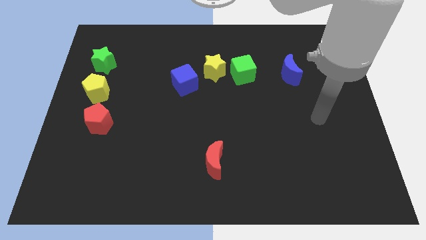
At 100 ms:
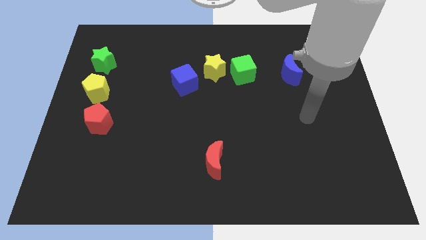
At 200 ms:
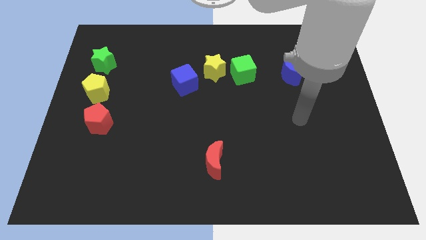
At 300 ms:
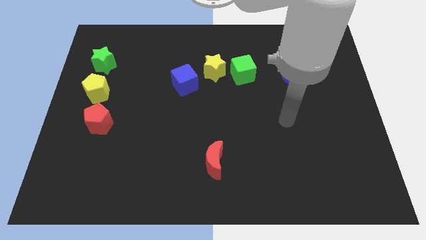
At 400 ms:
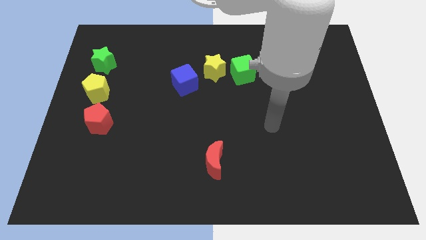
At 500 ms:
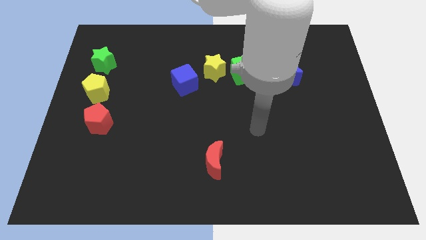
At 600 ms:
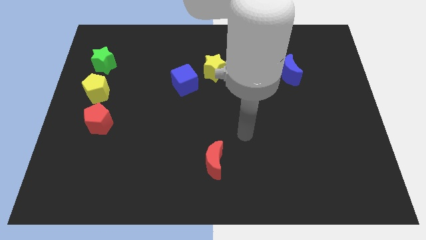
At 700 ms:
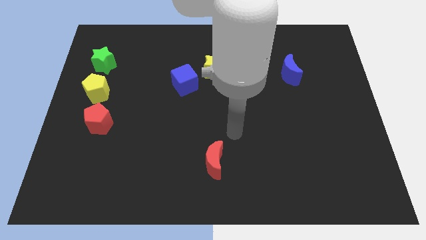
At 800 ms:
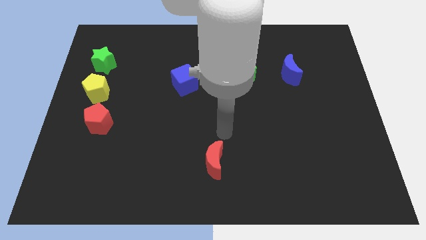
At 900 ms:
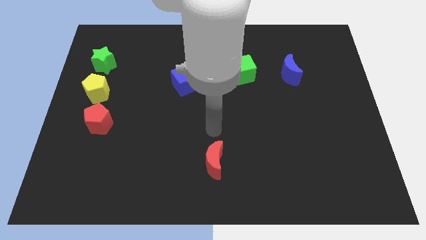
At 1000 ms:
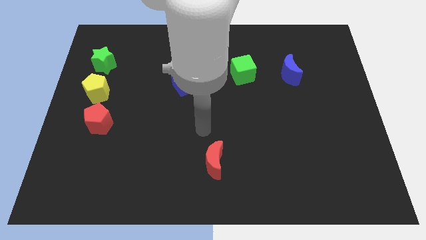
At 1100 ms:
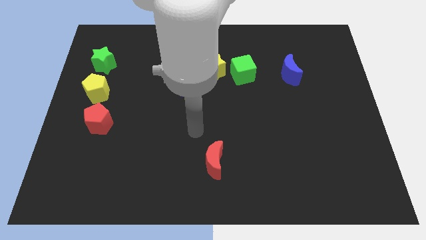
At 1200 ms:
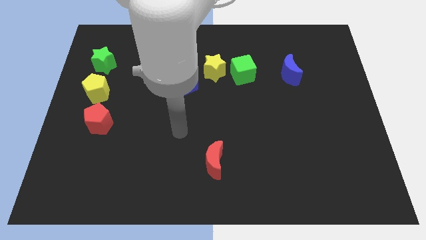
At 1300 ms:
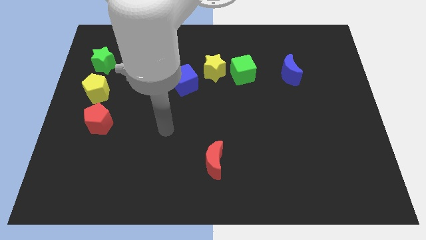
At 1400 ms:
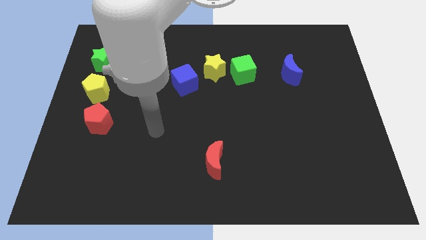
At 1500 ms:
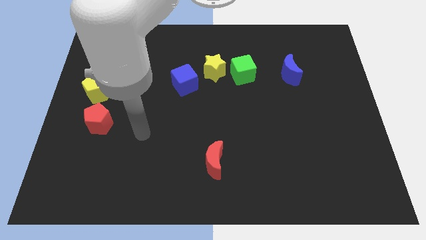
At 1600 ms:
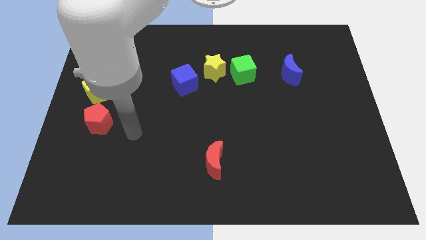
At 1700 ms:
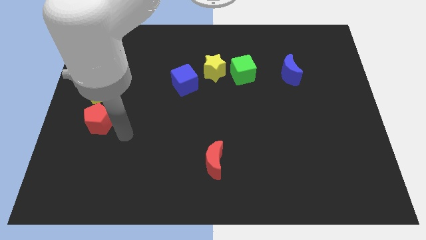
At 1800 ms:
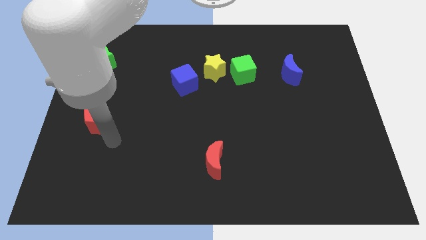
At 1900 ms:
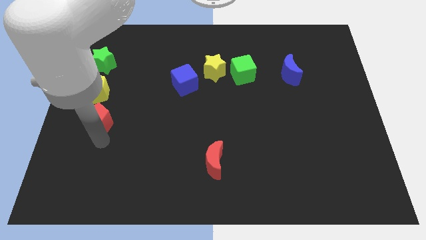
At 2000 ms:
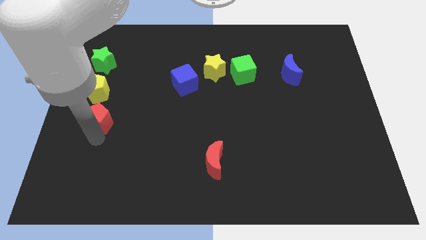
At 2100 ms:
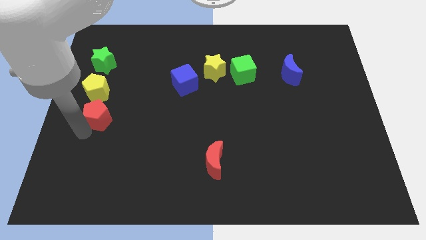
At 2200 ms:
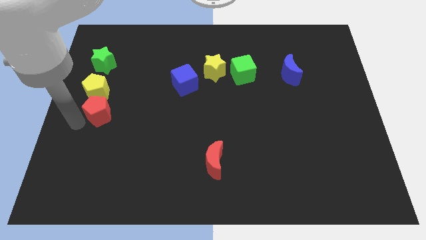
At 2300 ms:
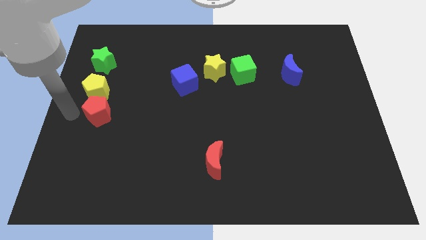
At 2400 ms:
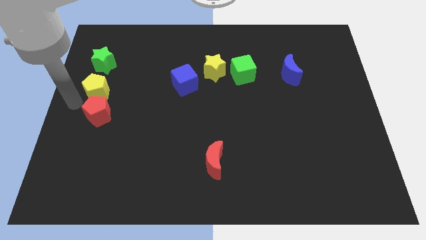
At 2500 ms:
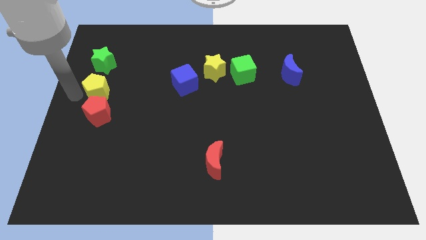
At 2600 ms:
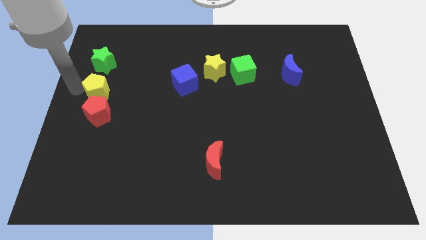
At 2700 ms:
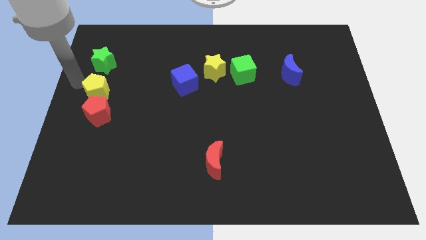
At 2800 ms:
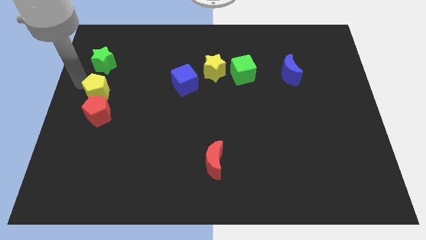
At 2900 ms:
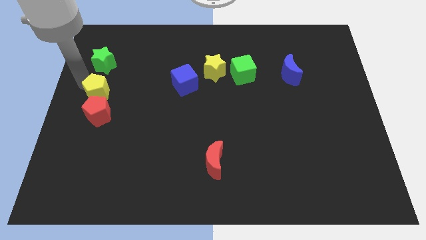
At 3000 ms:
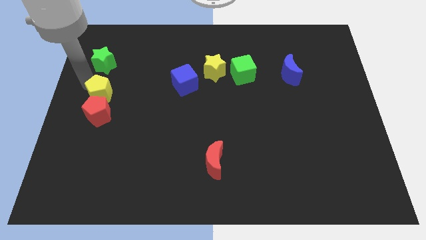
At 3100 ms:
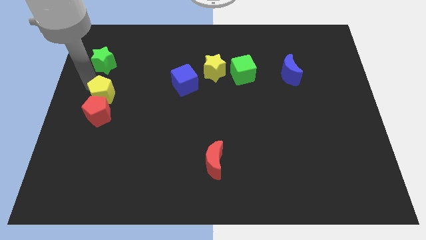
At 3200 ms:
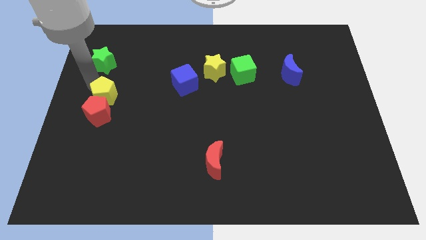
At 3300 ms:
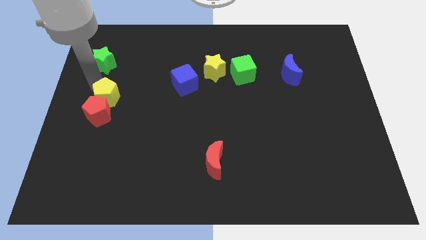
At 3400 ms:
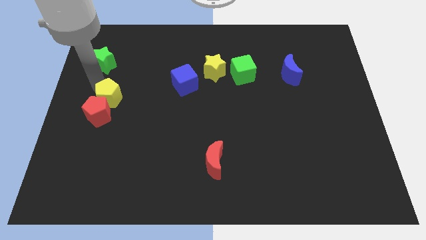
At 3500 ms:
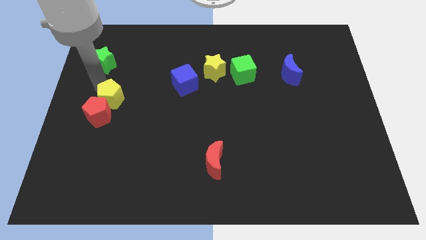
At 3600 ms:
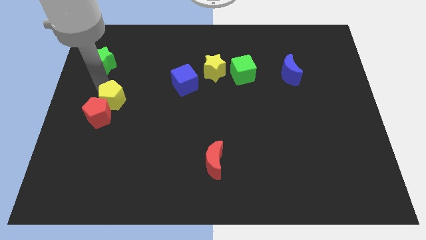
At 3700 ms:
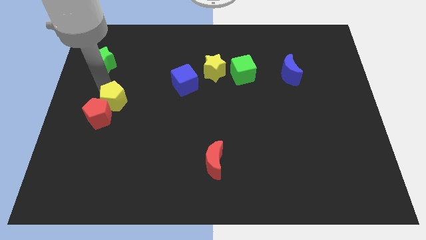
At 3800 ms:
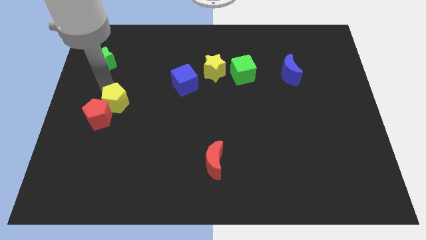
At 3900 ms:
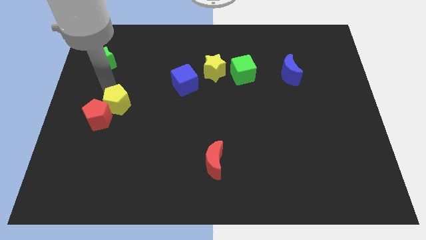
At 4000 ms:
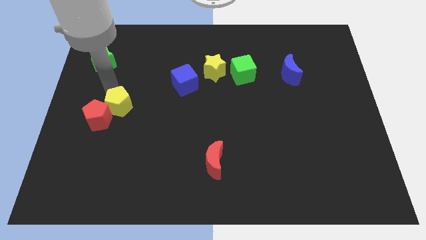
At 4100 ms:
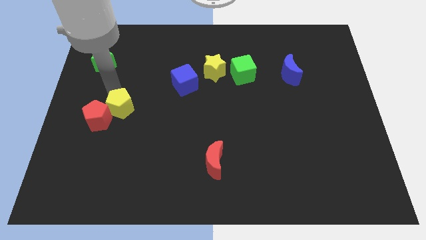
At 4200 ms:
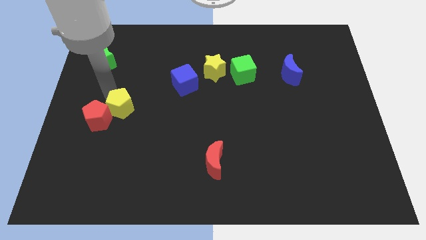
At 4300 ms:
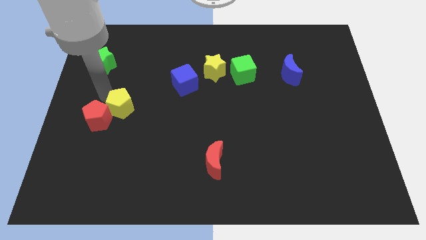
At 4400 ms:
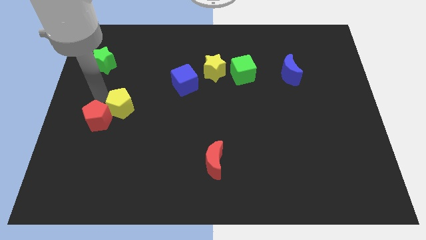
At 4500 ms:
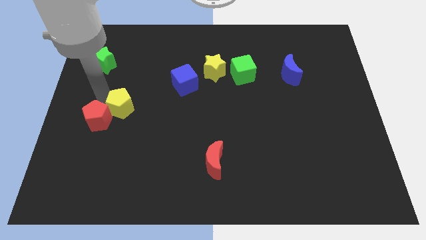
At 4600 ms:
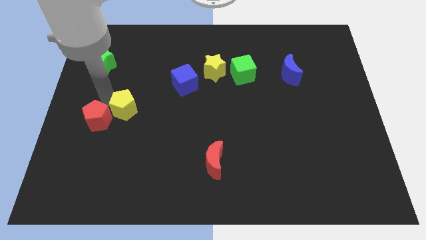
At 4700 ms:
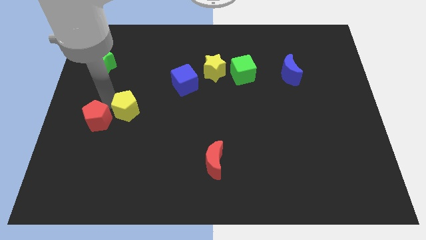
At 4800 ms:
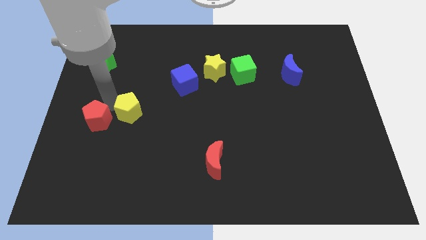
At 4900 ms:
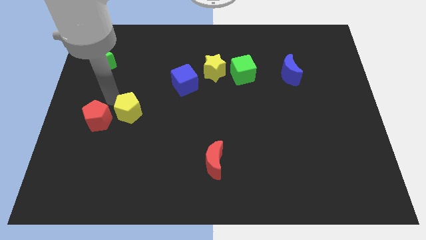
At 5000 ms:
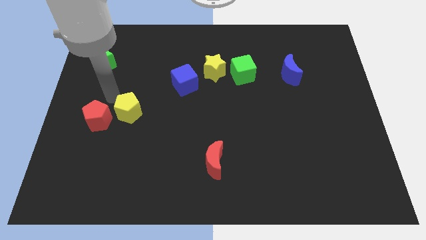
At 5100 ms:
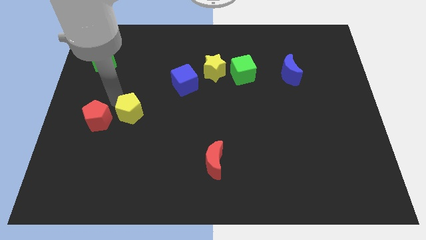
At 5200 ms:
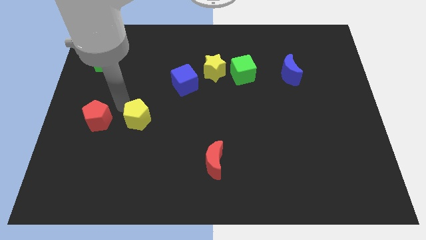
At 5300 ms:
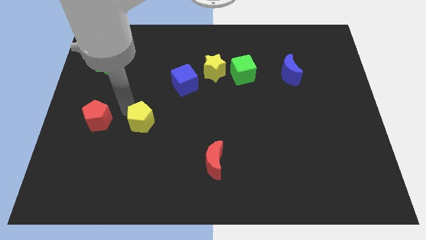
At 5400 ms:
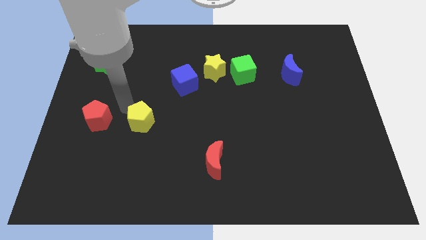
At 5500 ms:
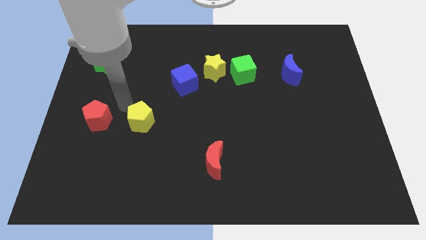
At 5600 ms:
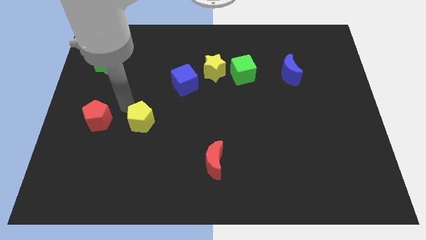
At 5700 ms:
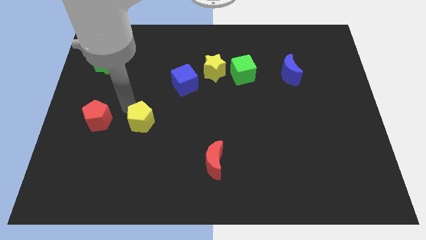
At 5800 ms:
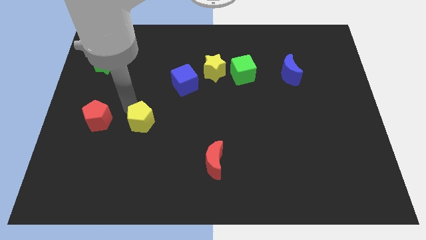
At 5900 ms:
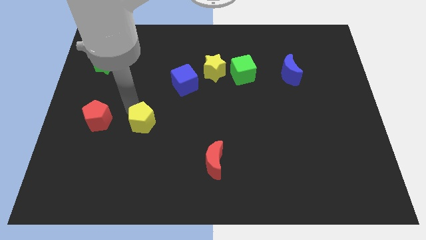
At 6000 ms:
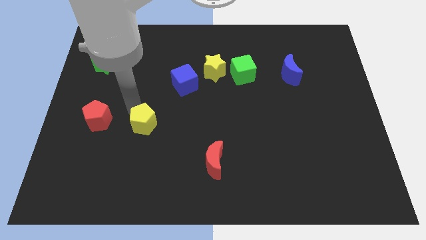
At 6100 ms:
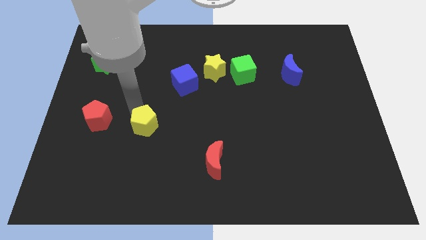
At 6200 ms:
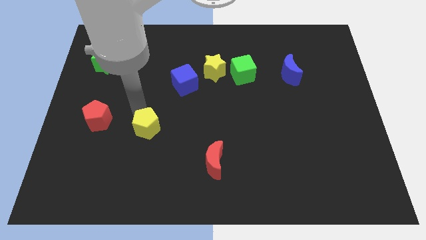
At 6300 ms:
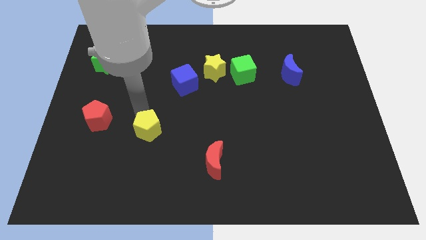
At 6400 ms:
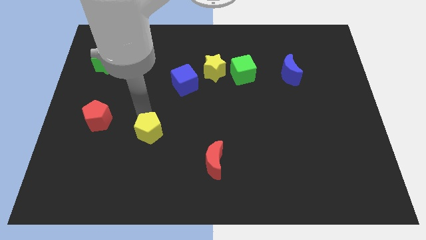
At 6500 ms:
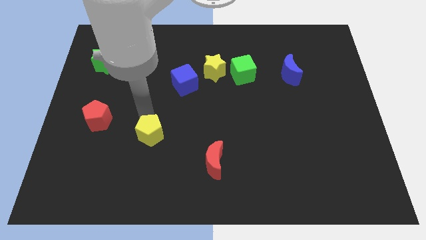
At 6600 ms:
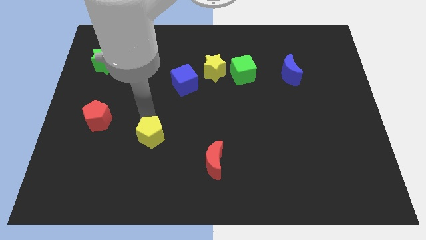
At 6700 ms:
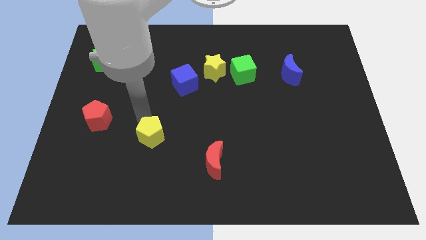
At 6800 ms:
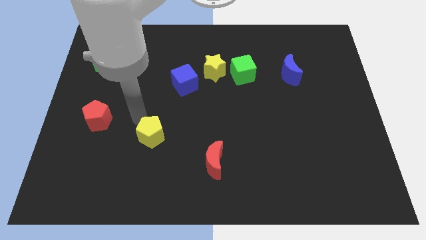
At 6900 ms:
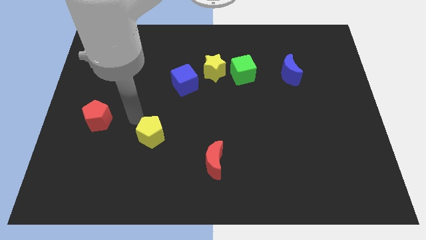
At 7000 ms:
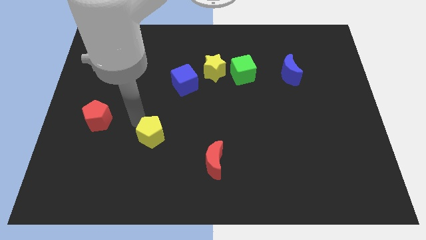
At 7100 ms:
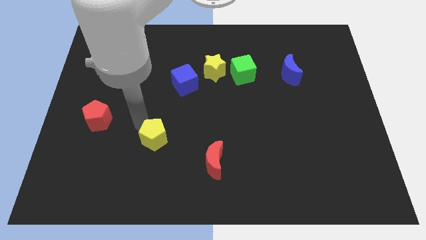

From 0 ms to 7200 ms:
move the yellow pentagon diagonally downwards and right

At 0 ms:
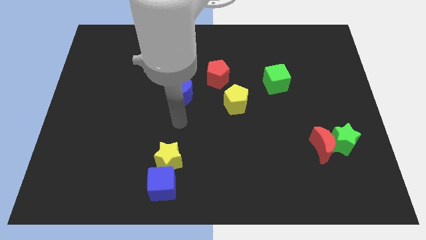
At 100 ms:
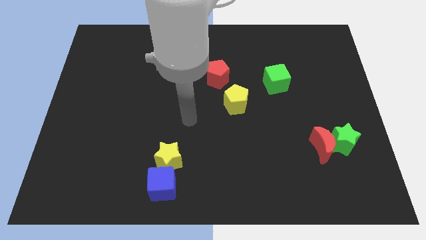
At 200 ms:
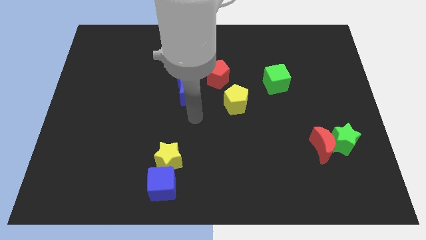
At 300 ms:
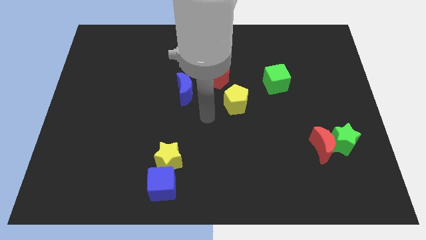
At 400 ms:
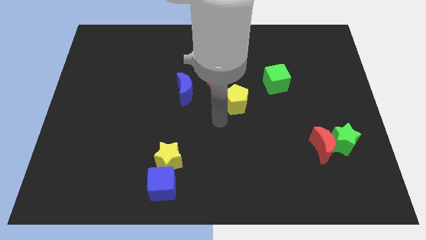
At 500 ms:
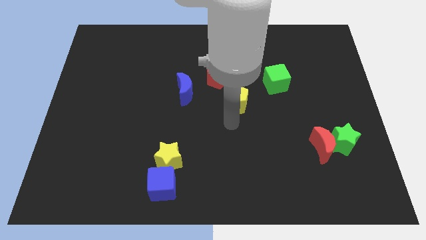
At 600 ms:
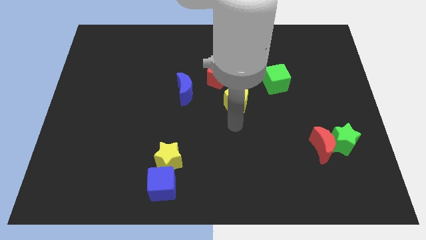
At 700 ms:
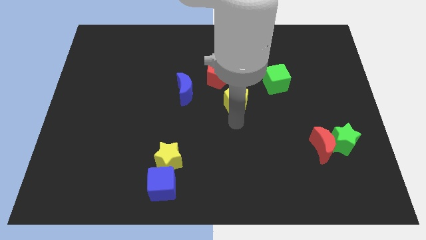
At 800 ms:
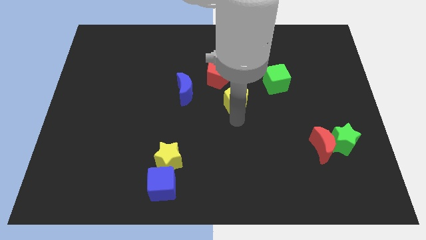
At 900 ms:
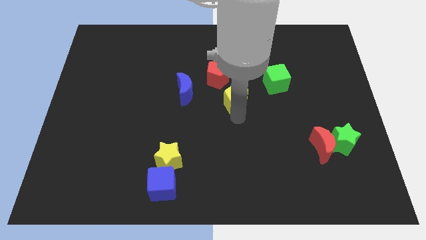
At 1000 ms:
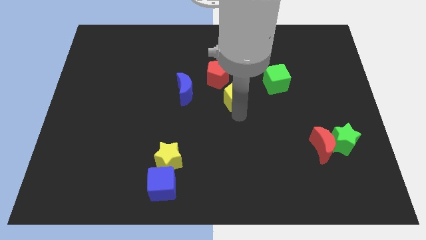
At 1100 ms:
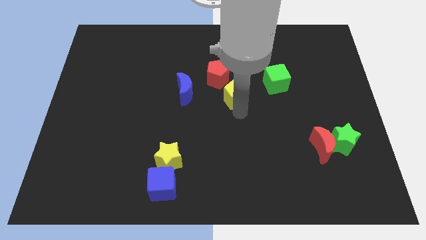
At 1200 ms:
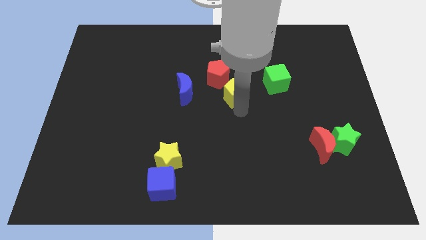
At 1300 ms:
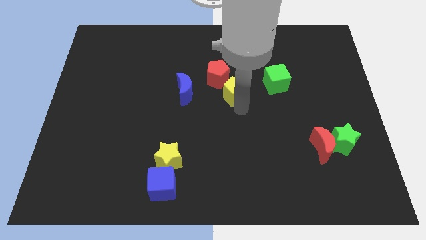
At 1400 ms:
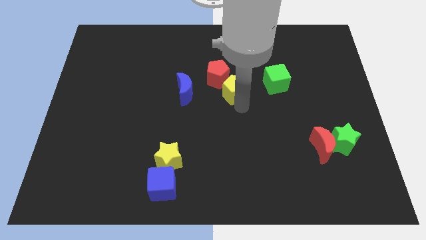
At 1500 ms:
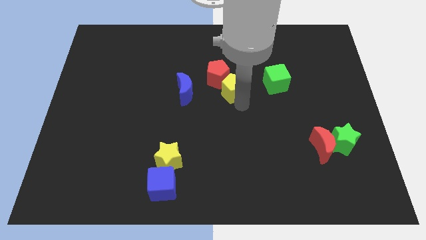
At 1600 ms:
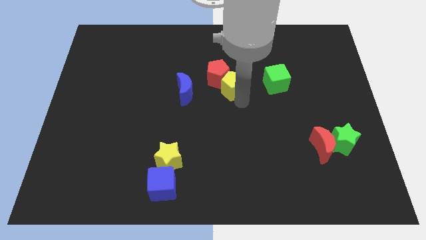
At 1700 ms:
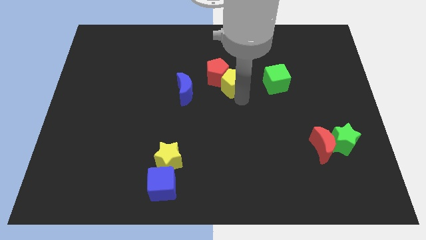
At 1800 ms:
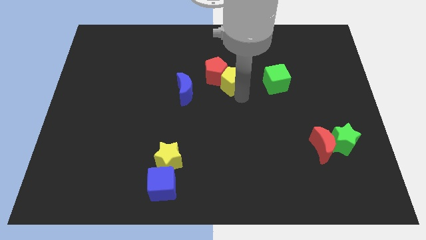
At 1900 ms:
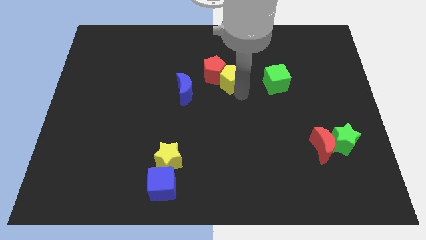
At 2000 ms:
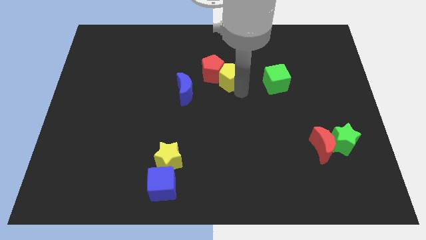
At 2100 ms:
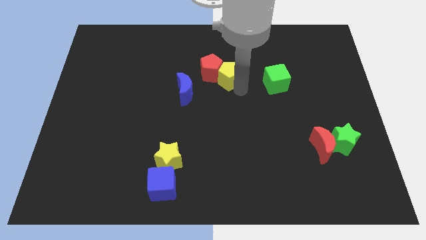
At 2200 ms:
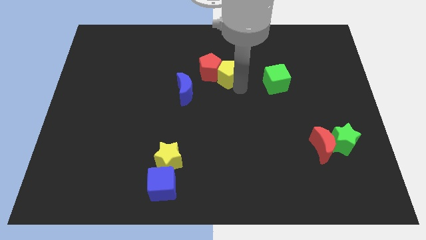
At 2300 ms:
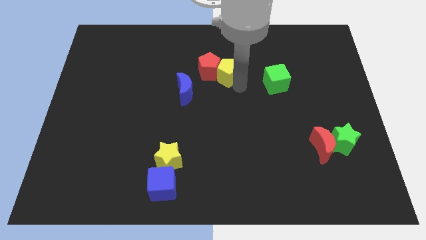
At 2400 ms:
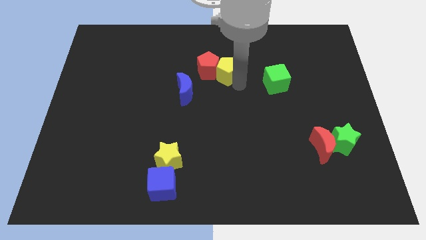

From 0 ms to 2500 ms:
slightly slide the yellow pentagon diagonally up and to the left
